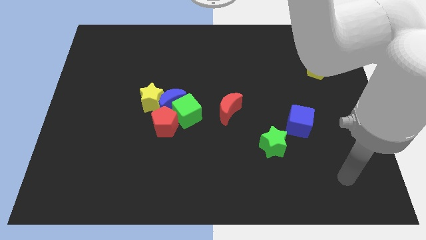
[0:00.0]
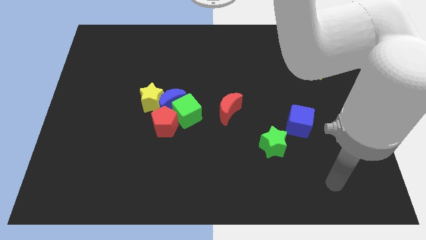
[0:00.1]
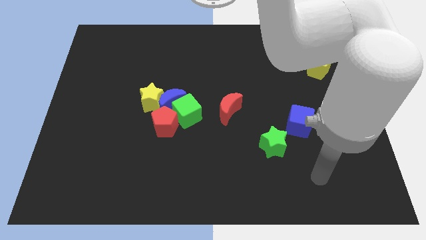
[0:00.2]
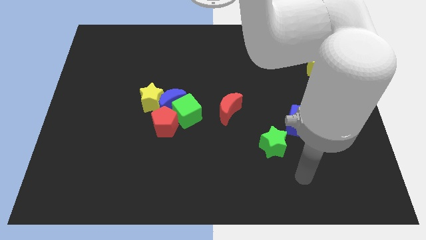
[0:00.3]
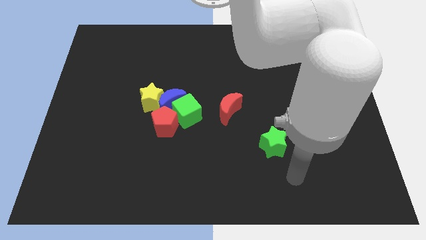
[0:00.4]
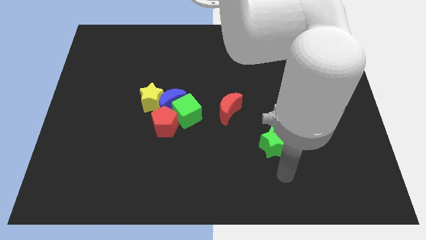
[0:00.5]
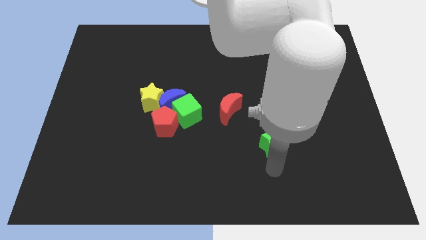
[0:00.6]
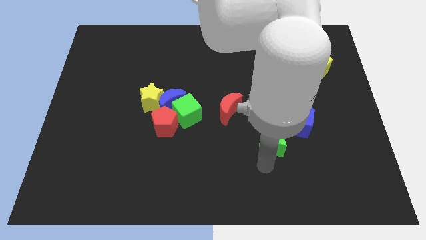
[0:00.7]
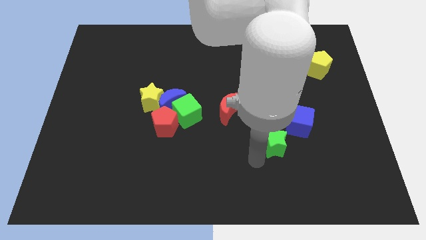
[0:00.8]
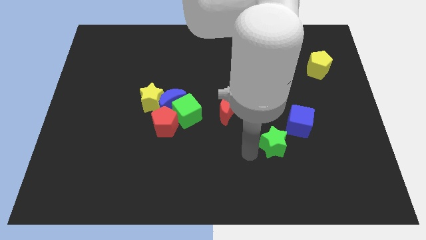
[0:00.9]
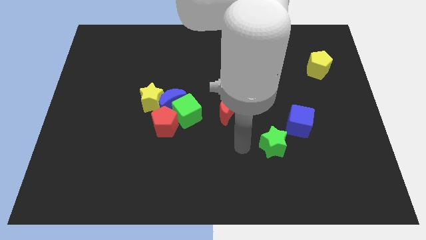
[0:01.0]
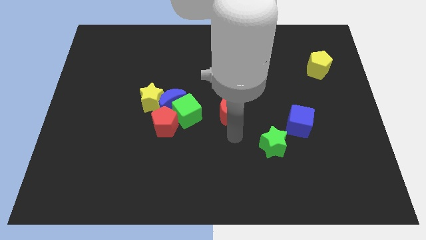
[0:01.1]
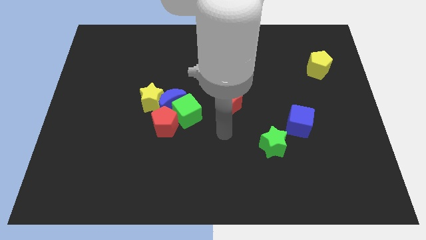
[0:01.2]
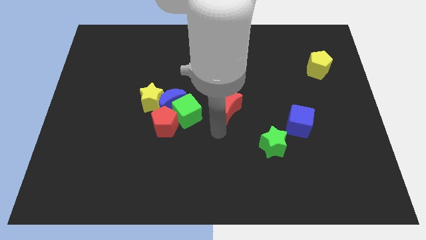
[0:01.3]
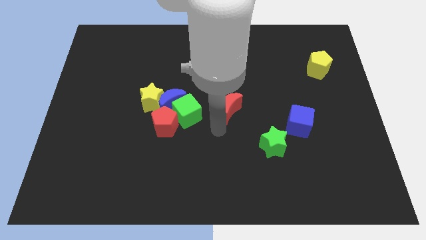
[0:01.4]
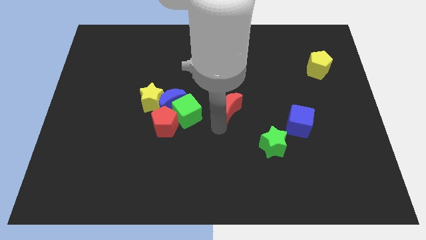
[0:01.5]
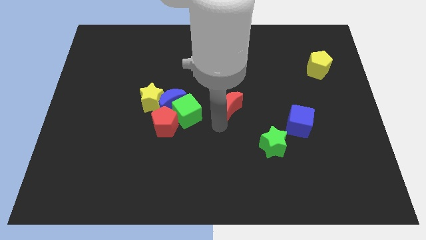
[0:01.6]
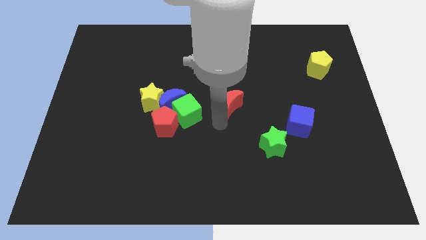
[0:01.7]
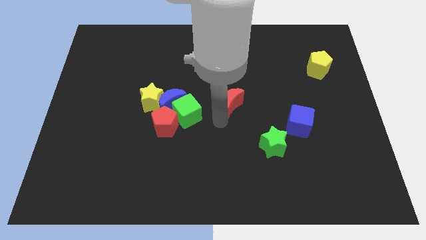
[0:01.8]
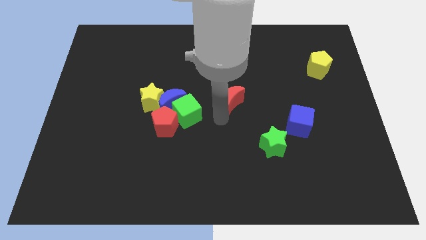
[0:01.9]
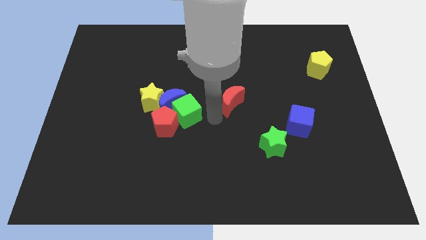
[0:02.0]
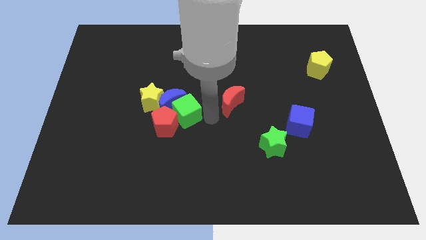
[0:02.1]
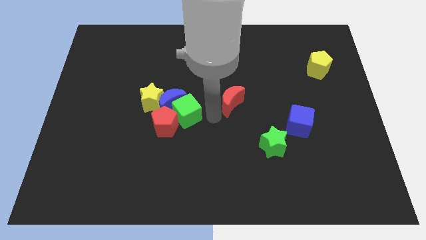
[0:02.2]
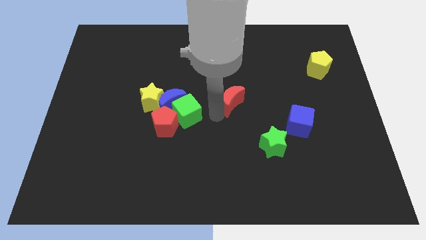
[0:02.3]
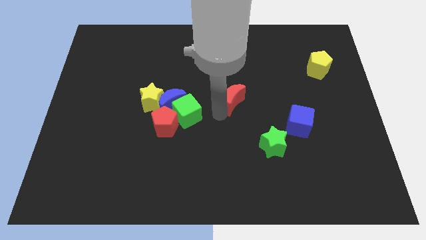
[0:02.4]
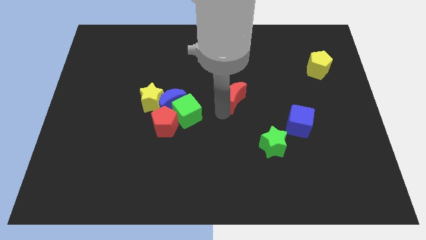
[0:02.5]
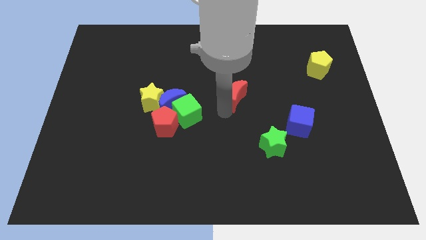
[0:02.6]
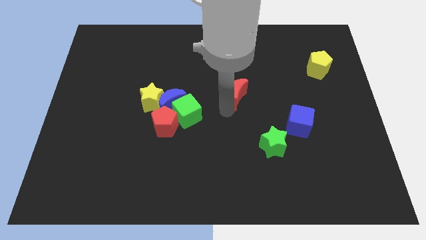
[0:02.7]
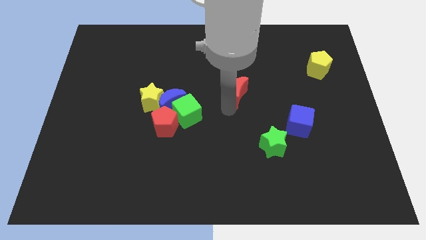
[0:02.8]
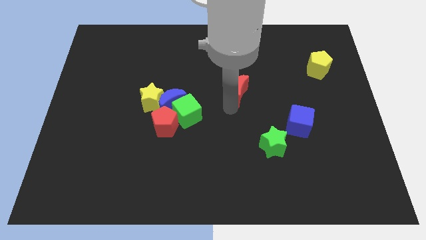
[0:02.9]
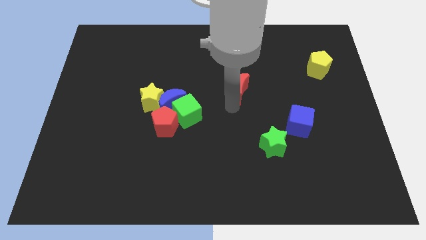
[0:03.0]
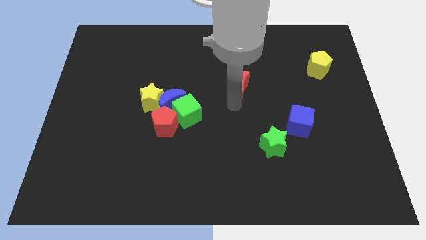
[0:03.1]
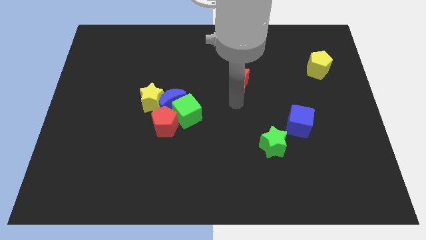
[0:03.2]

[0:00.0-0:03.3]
slide the red moon a bit up and to the right

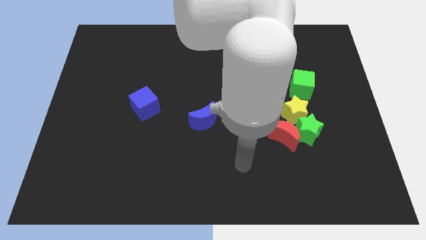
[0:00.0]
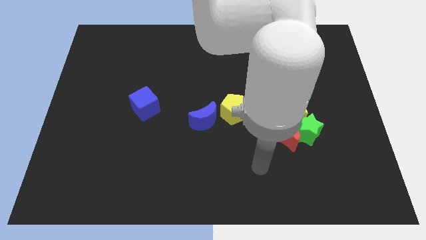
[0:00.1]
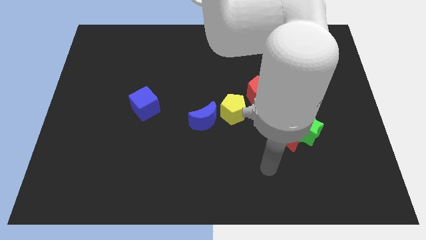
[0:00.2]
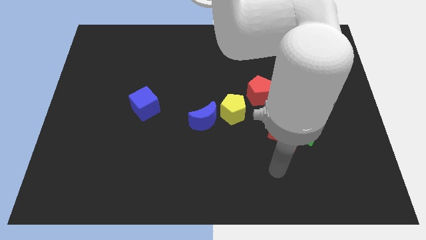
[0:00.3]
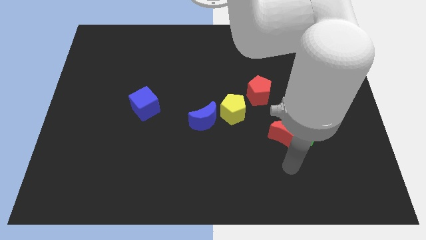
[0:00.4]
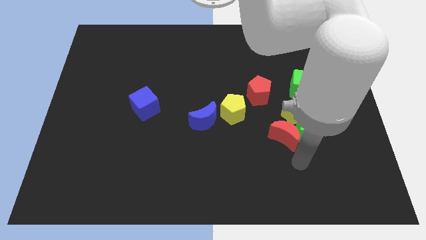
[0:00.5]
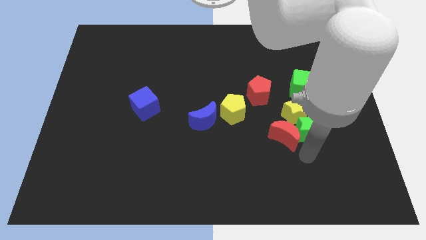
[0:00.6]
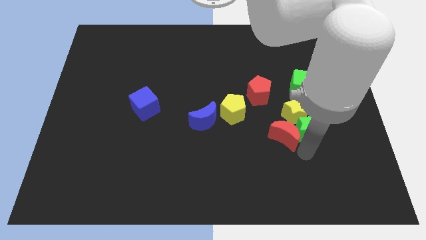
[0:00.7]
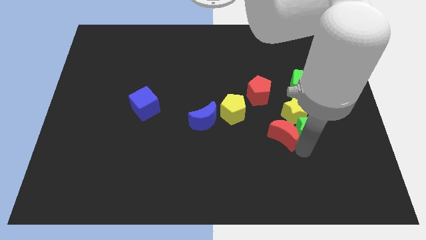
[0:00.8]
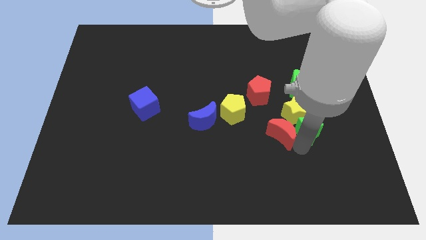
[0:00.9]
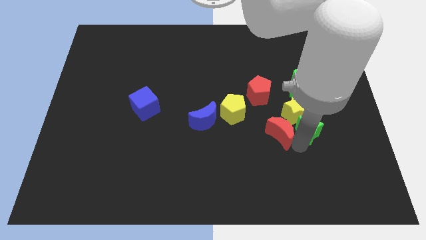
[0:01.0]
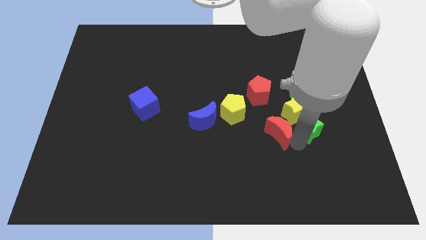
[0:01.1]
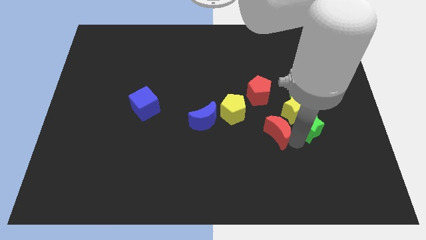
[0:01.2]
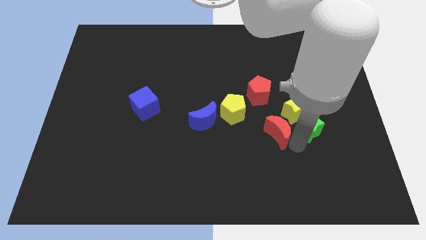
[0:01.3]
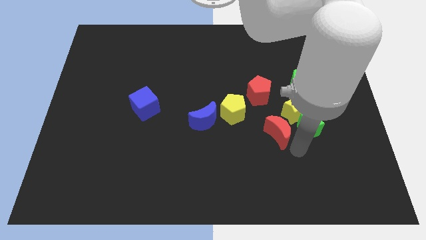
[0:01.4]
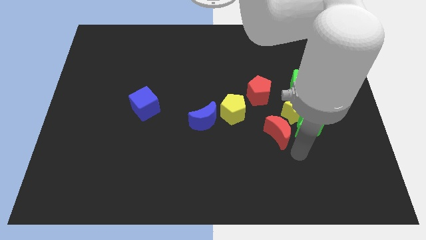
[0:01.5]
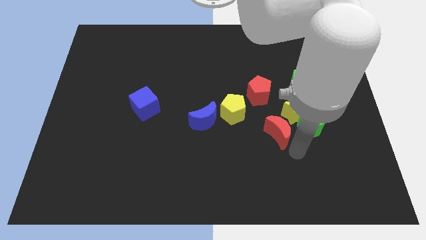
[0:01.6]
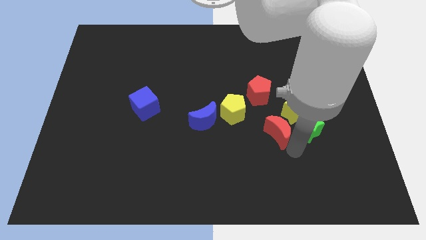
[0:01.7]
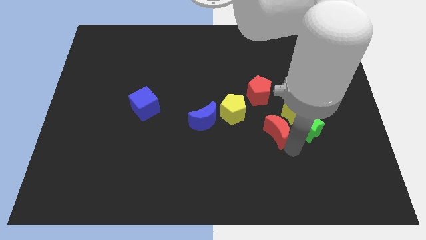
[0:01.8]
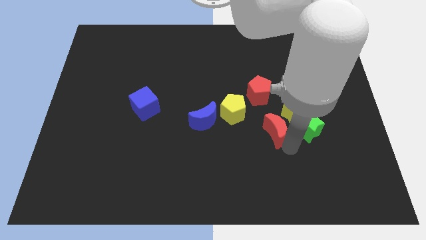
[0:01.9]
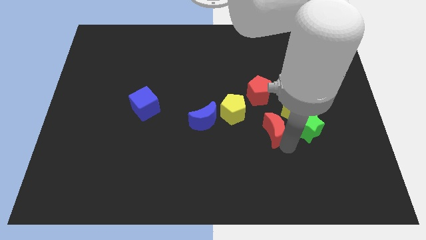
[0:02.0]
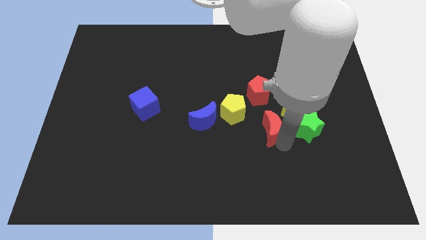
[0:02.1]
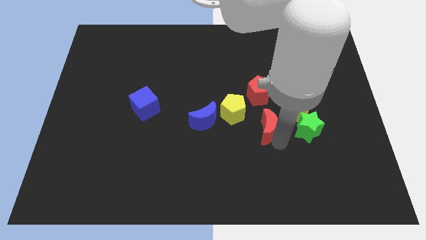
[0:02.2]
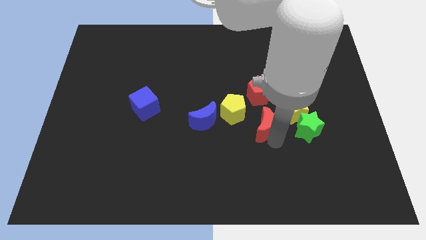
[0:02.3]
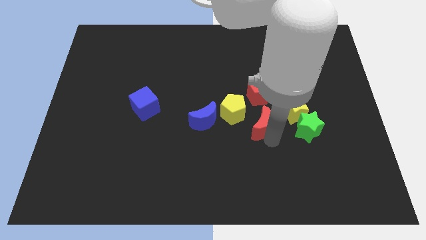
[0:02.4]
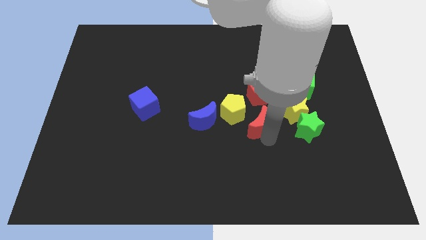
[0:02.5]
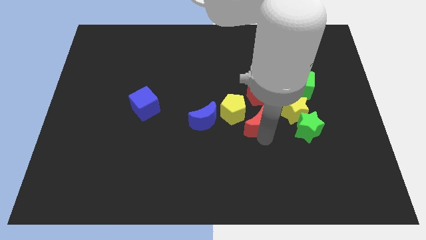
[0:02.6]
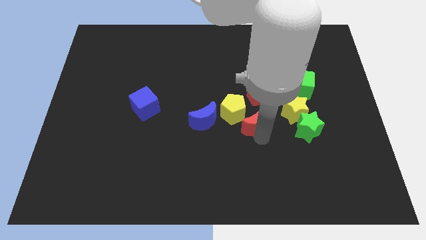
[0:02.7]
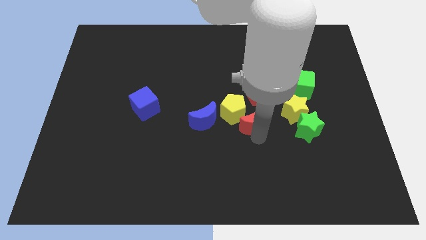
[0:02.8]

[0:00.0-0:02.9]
slightly move the red moon upwards and left diagonally

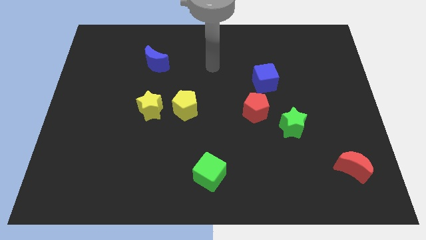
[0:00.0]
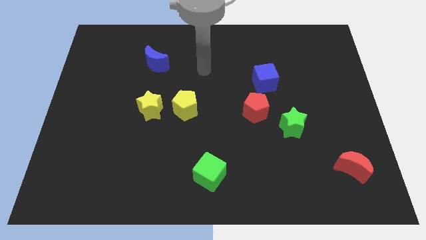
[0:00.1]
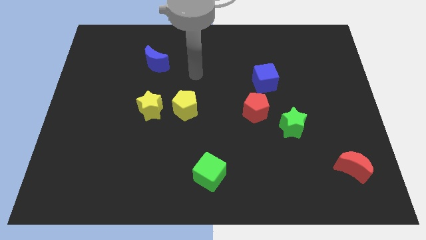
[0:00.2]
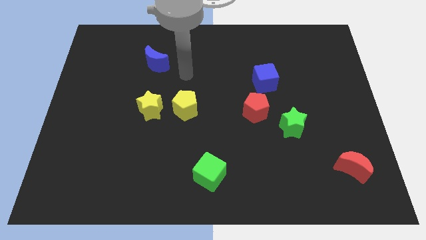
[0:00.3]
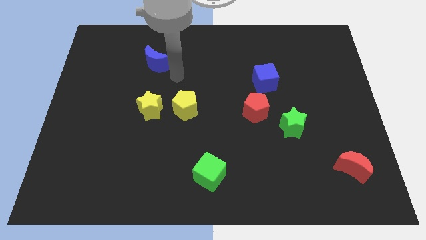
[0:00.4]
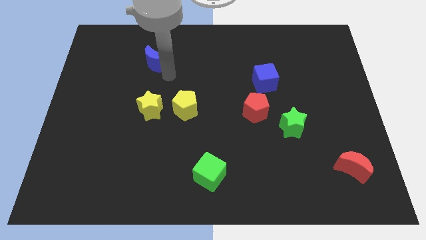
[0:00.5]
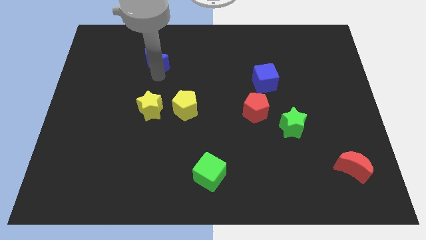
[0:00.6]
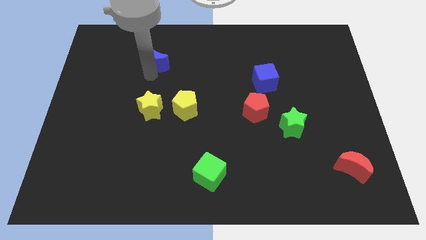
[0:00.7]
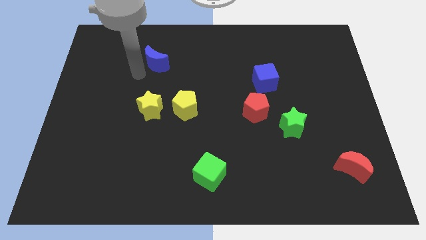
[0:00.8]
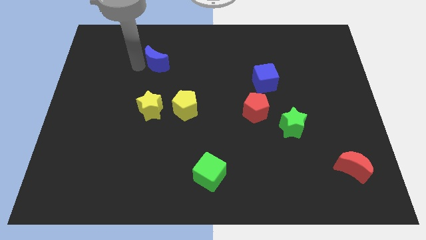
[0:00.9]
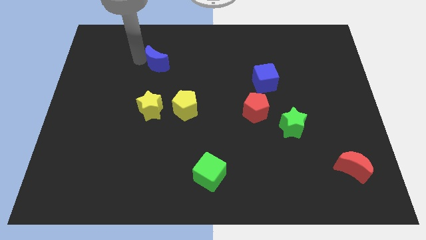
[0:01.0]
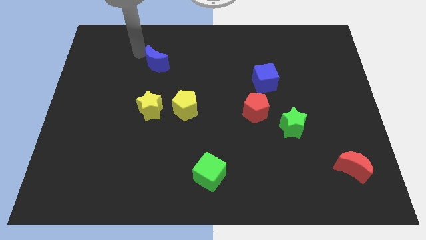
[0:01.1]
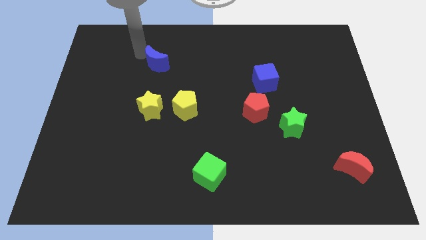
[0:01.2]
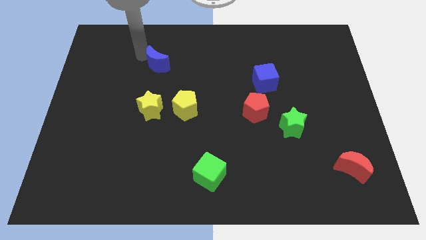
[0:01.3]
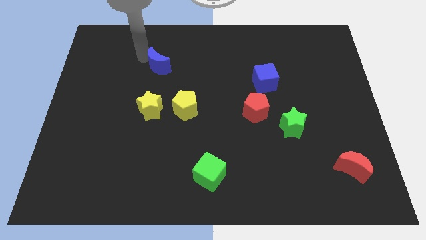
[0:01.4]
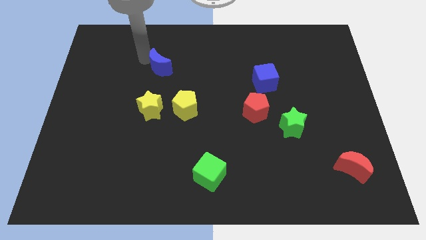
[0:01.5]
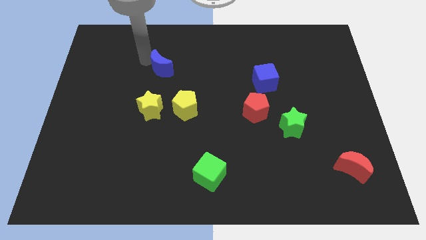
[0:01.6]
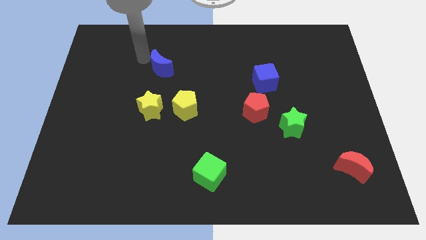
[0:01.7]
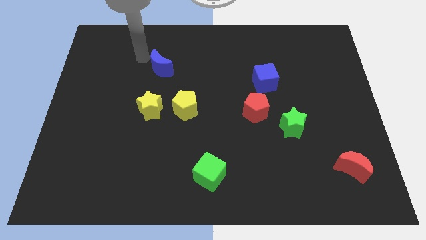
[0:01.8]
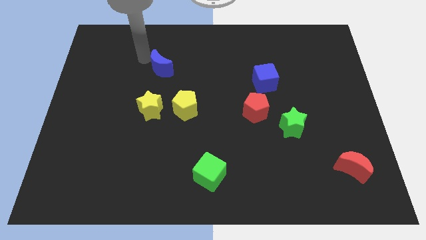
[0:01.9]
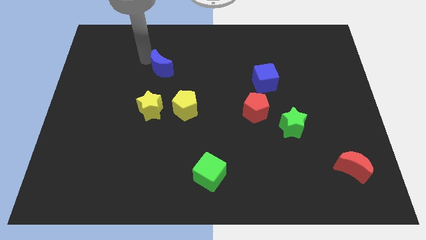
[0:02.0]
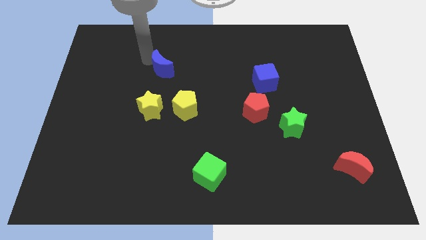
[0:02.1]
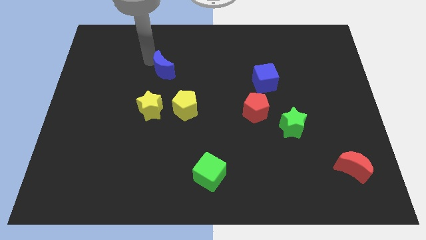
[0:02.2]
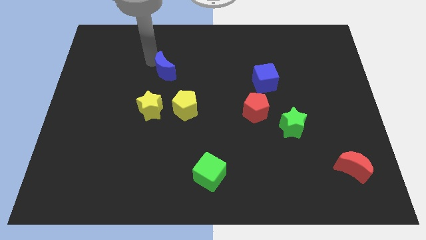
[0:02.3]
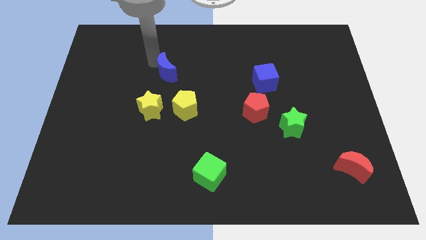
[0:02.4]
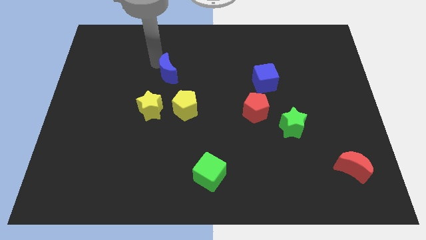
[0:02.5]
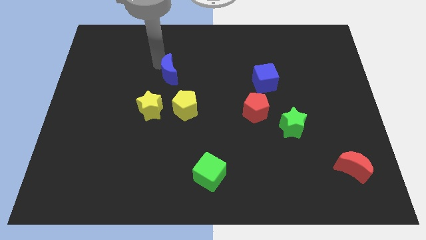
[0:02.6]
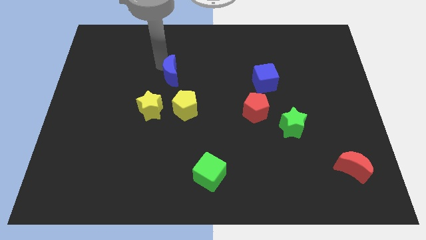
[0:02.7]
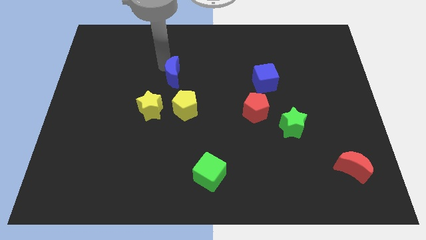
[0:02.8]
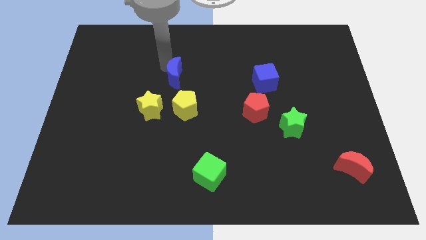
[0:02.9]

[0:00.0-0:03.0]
slightly slide the blue moon downwards and right
